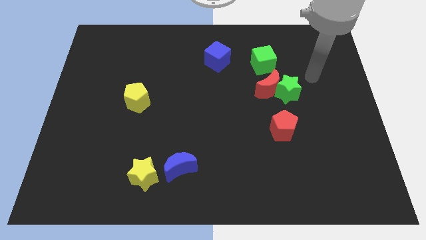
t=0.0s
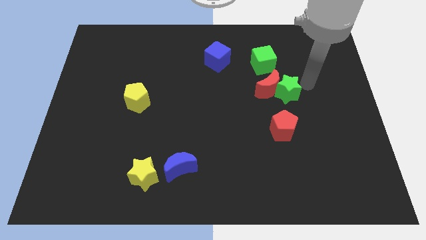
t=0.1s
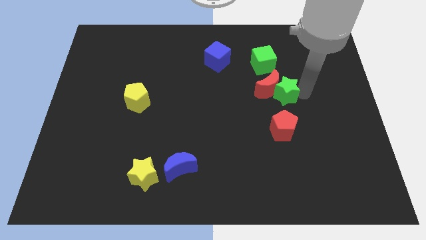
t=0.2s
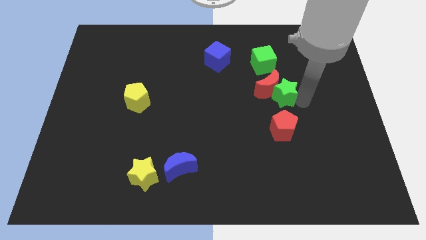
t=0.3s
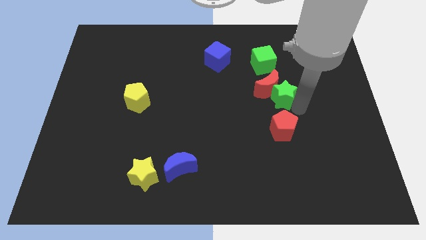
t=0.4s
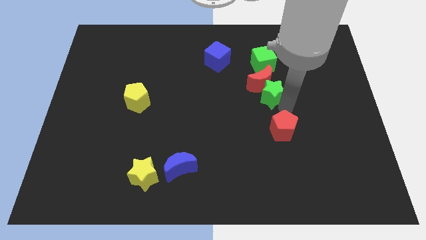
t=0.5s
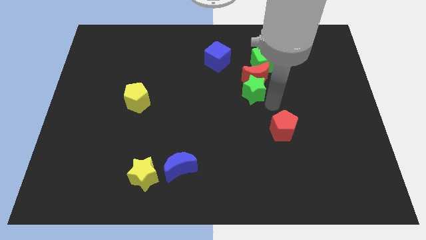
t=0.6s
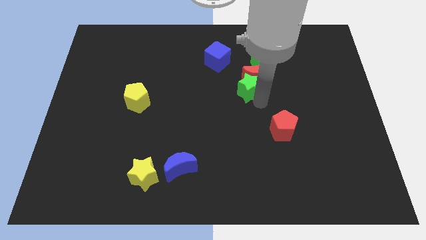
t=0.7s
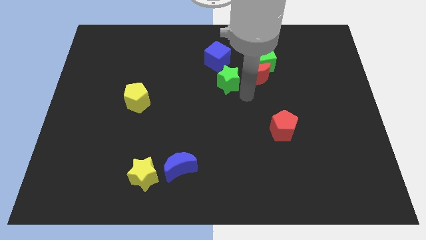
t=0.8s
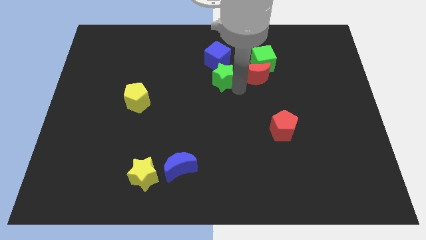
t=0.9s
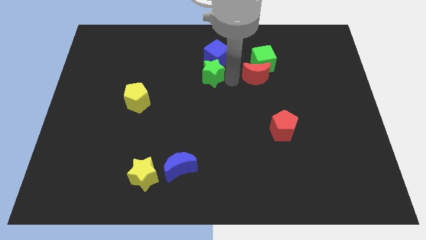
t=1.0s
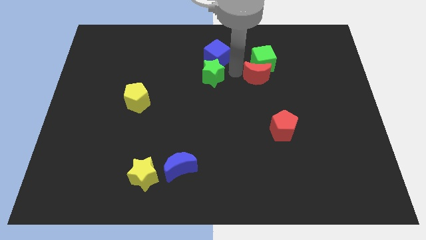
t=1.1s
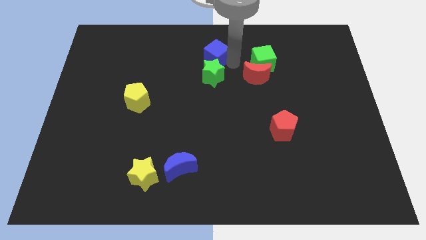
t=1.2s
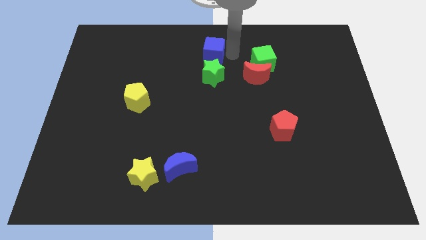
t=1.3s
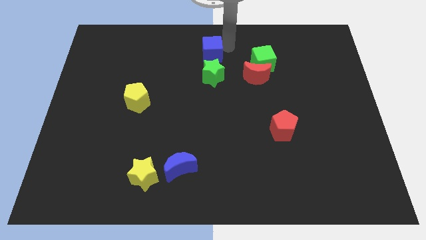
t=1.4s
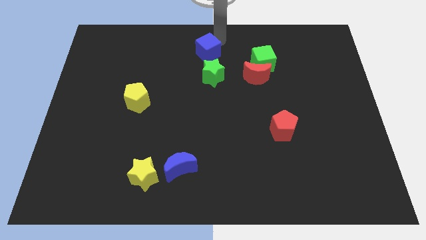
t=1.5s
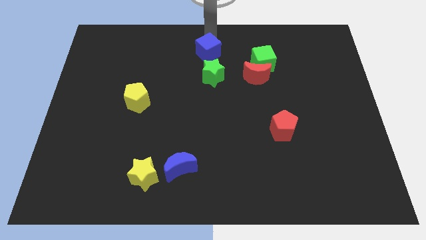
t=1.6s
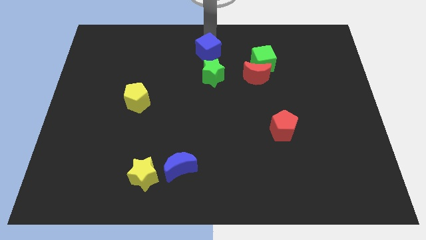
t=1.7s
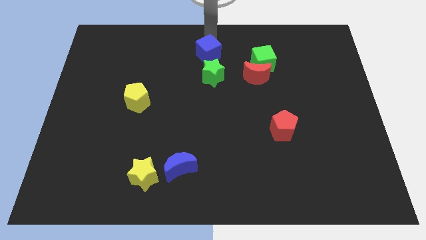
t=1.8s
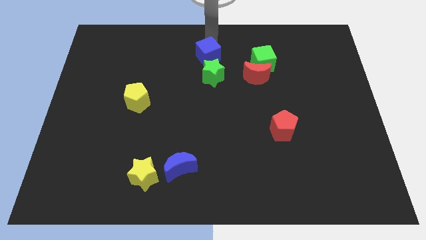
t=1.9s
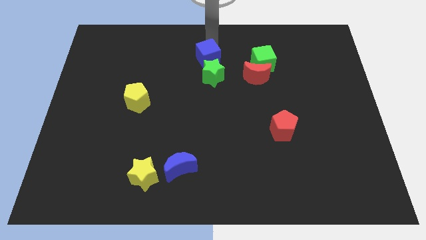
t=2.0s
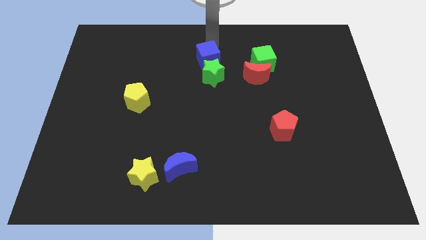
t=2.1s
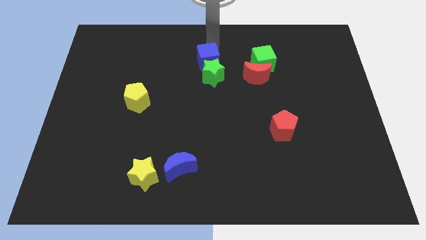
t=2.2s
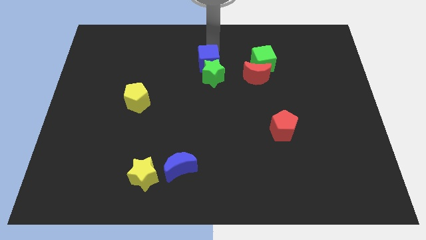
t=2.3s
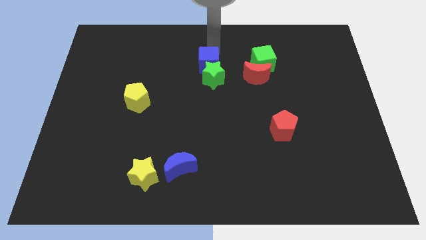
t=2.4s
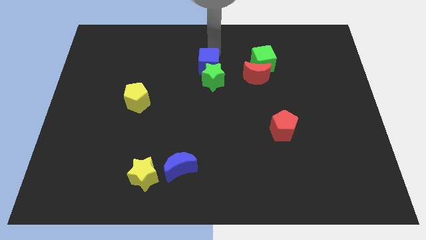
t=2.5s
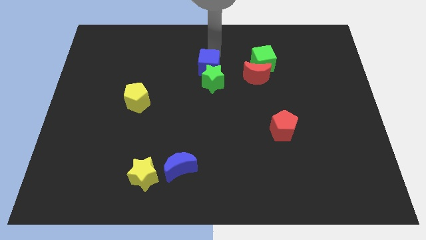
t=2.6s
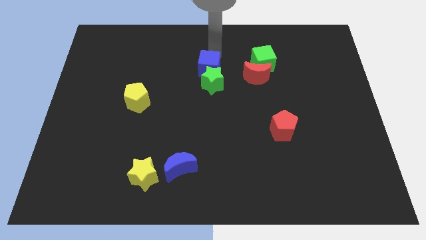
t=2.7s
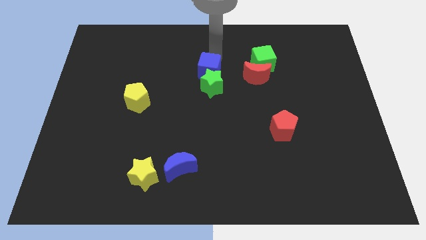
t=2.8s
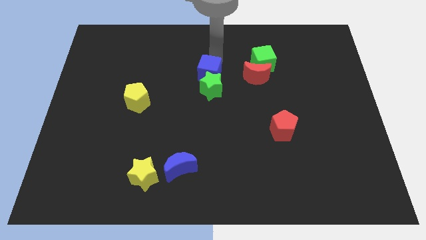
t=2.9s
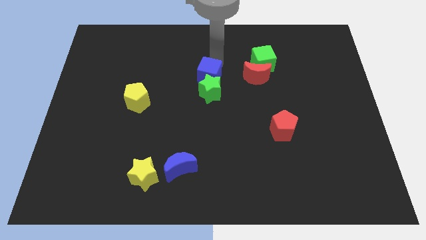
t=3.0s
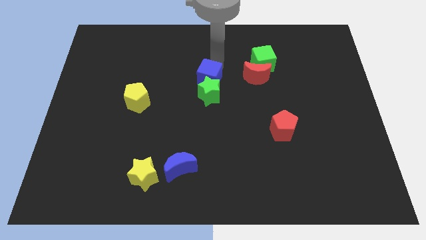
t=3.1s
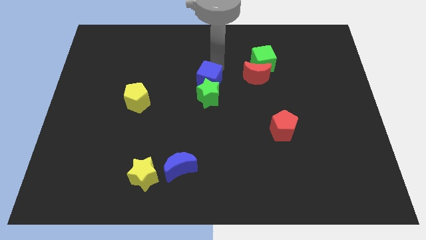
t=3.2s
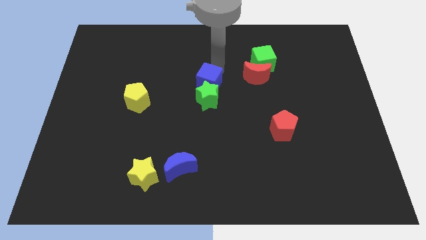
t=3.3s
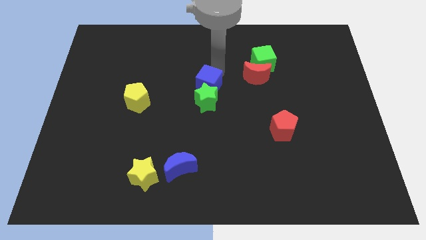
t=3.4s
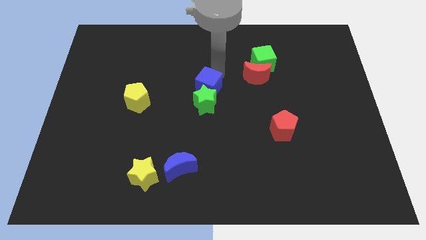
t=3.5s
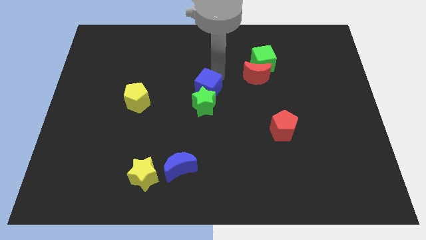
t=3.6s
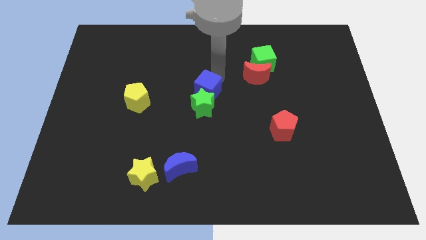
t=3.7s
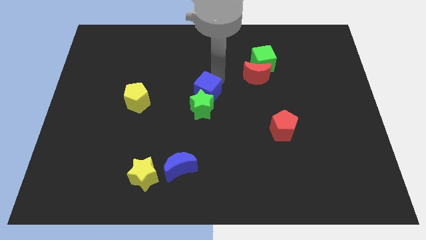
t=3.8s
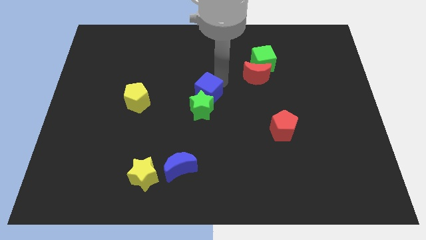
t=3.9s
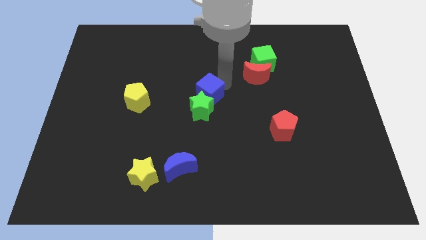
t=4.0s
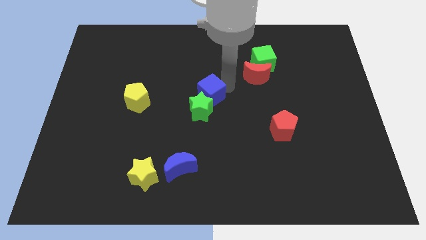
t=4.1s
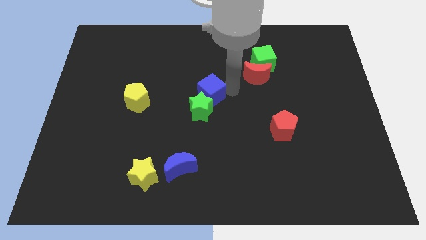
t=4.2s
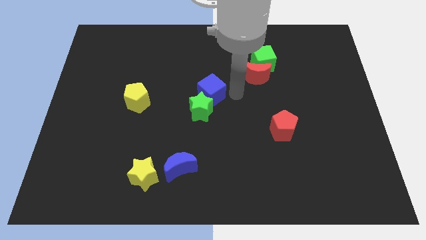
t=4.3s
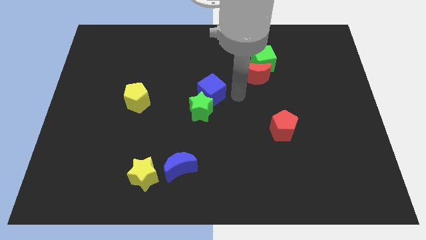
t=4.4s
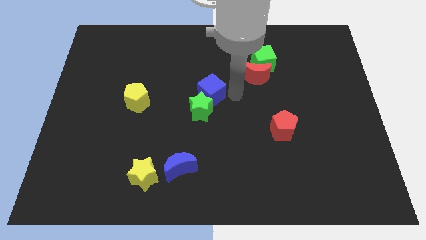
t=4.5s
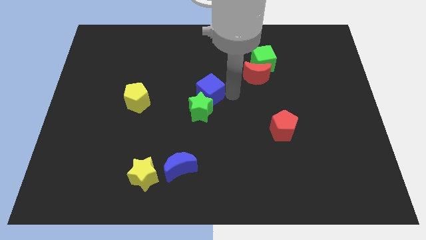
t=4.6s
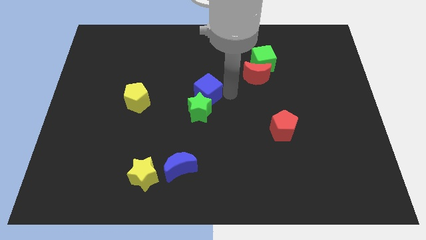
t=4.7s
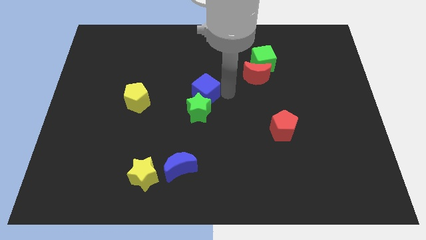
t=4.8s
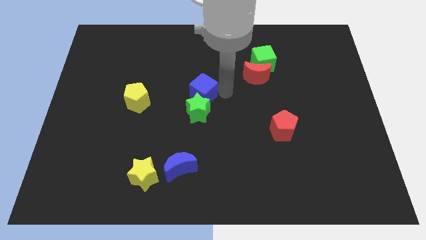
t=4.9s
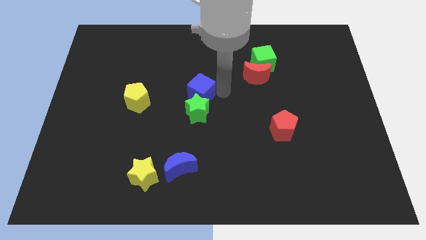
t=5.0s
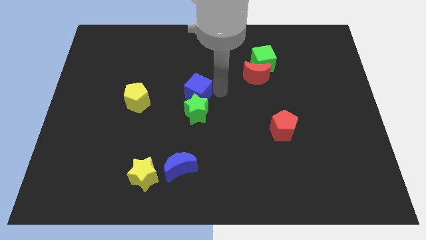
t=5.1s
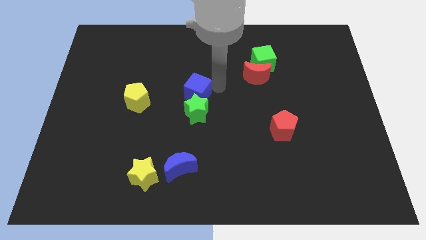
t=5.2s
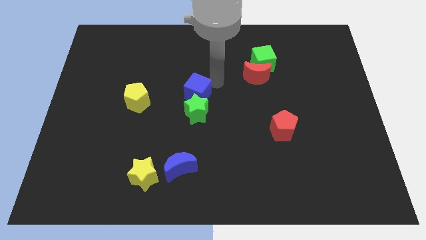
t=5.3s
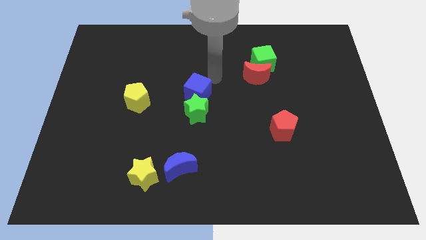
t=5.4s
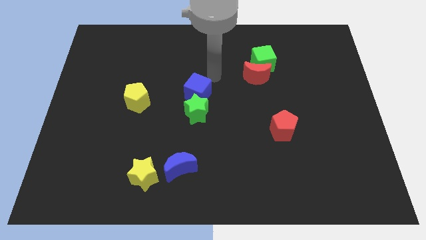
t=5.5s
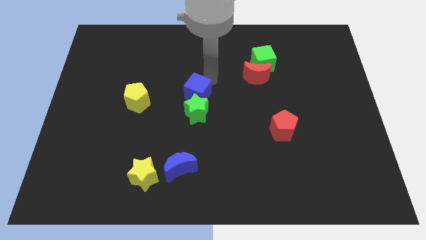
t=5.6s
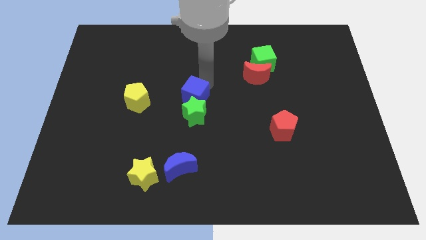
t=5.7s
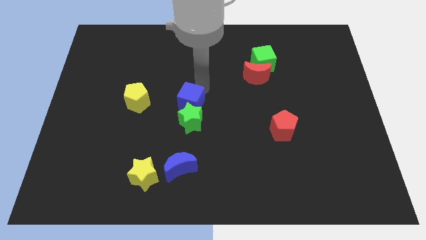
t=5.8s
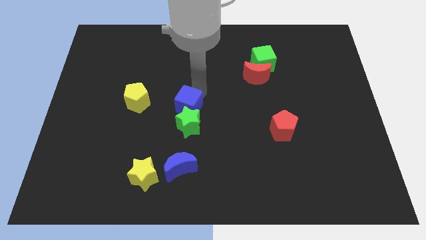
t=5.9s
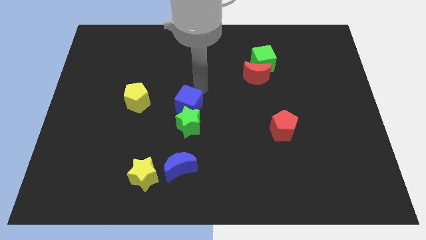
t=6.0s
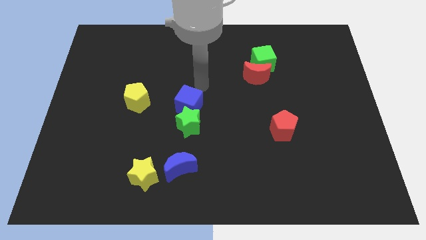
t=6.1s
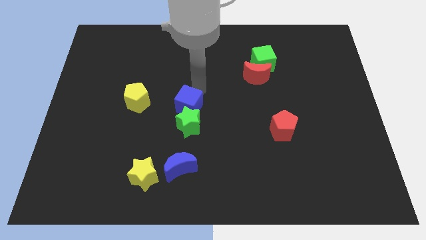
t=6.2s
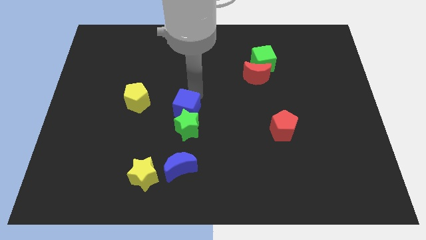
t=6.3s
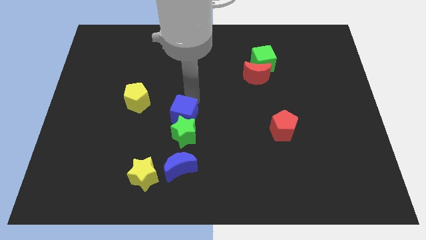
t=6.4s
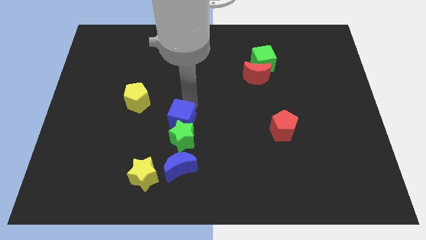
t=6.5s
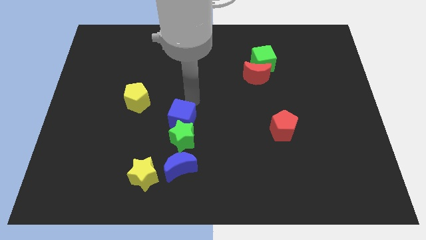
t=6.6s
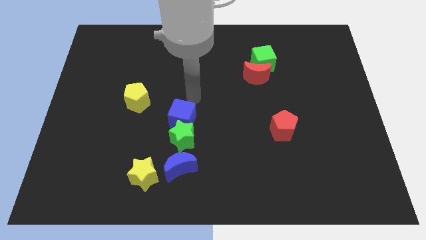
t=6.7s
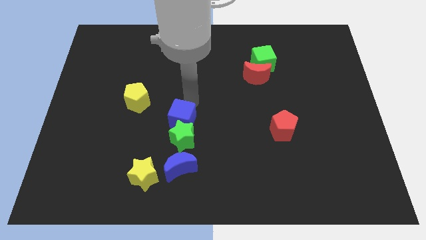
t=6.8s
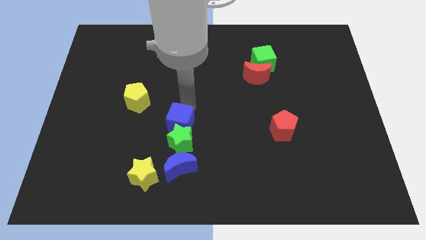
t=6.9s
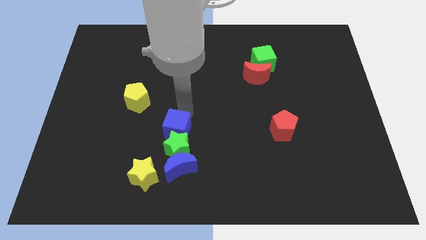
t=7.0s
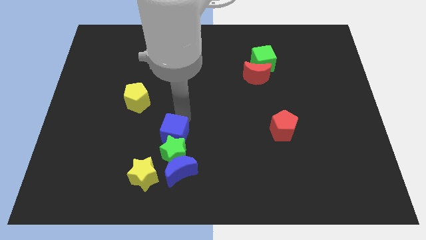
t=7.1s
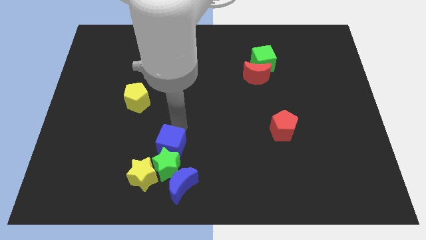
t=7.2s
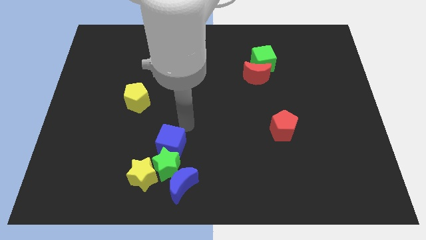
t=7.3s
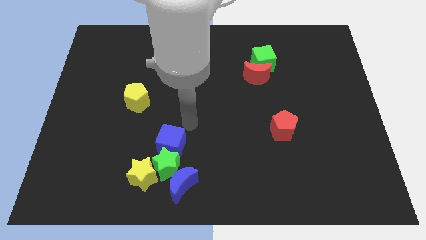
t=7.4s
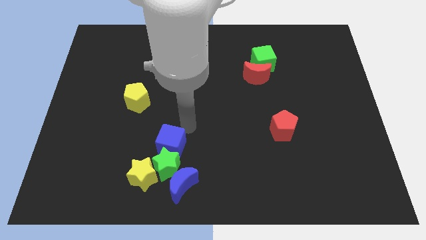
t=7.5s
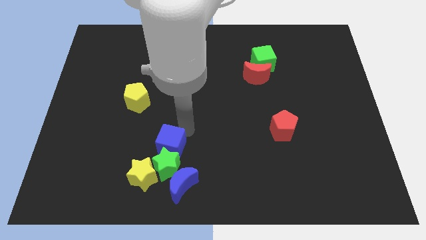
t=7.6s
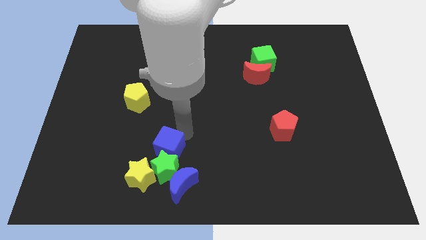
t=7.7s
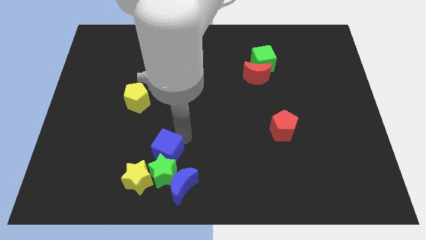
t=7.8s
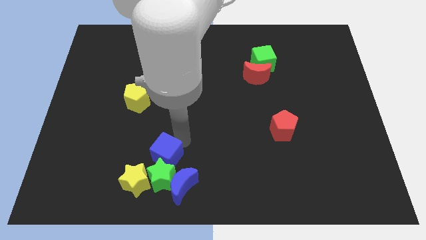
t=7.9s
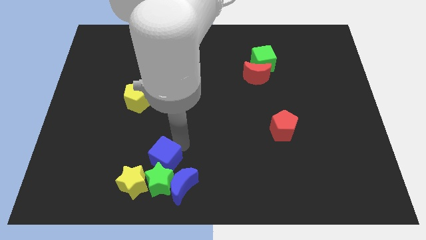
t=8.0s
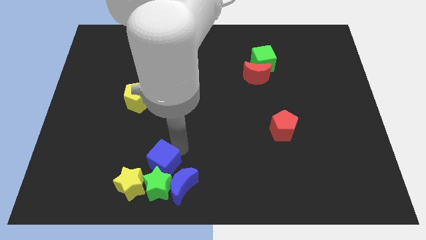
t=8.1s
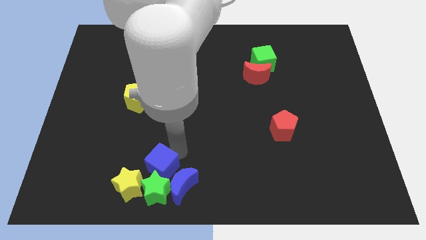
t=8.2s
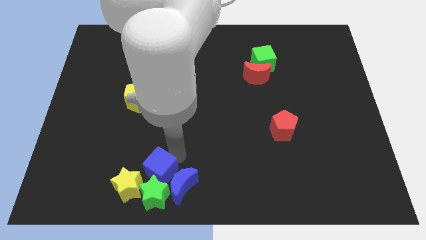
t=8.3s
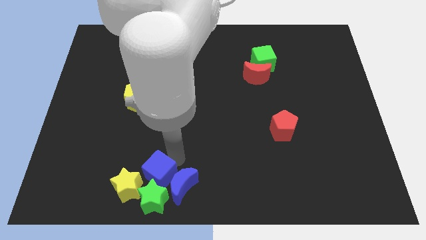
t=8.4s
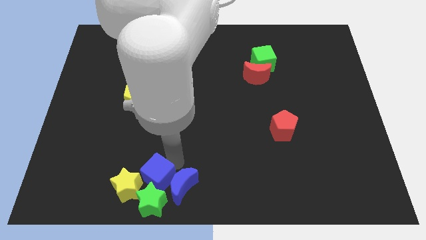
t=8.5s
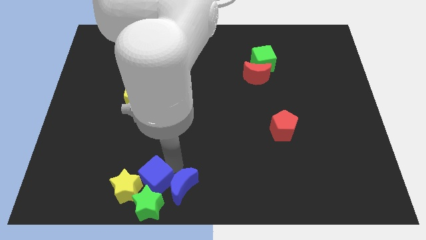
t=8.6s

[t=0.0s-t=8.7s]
slide the blue cube to the yellow star
